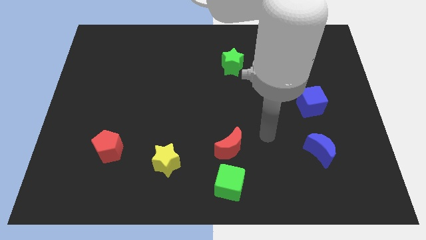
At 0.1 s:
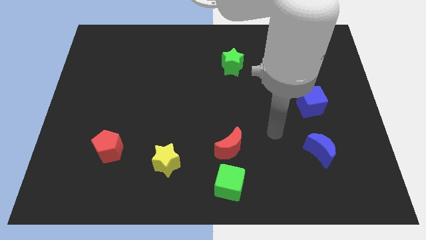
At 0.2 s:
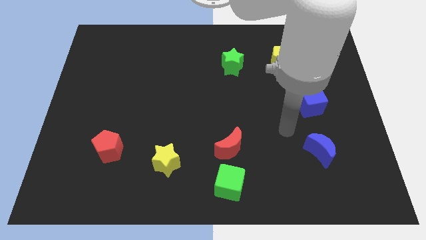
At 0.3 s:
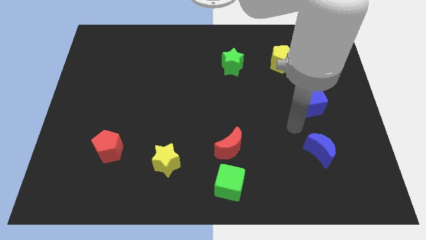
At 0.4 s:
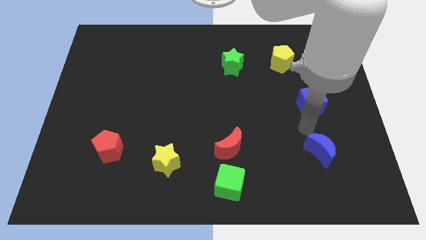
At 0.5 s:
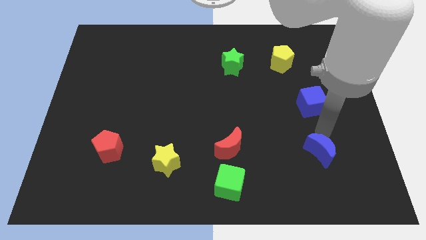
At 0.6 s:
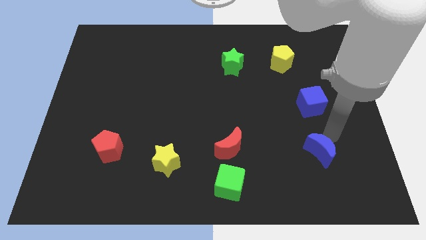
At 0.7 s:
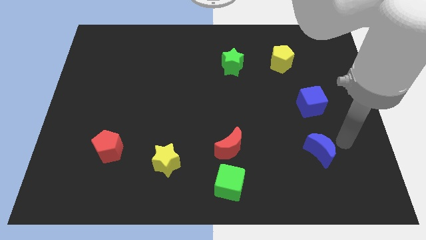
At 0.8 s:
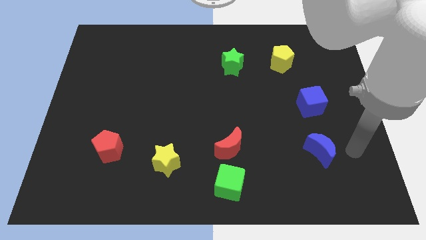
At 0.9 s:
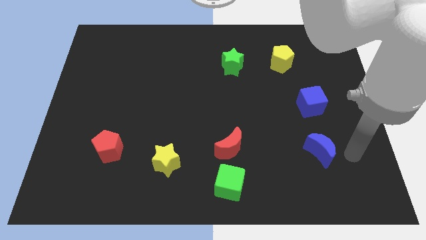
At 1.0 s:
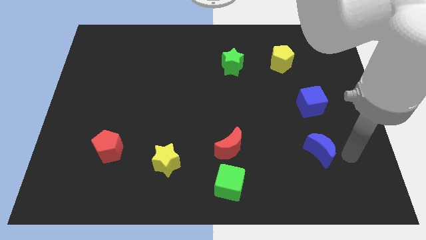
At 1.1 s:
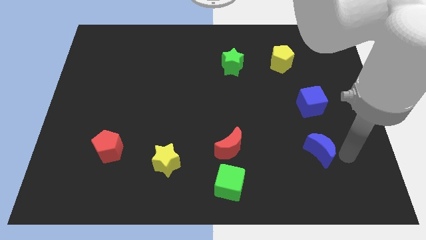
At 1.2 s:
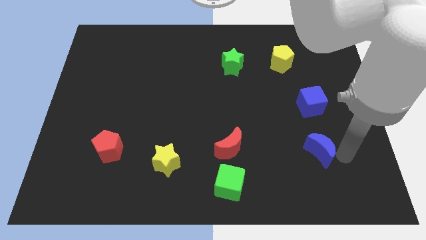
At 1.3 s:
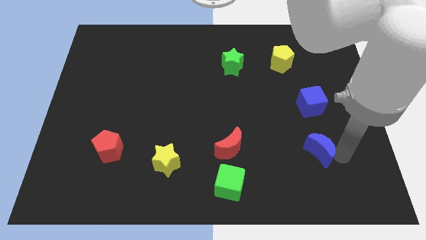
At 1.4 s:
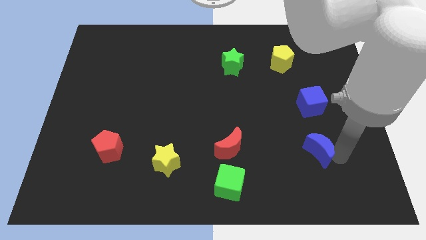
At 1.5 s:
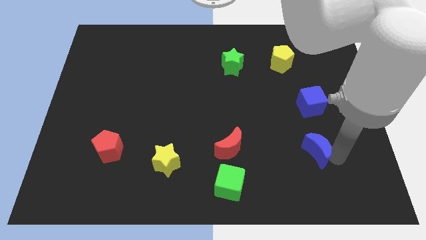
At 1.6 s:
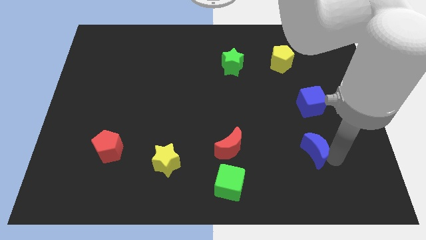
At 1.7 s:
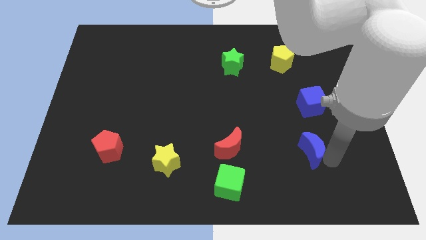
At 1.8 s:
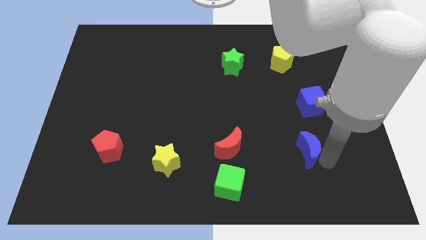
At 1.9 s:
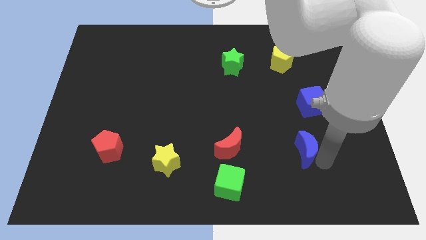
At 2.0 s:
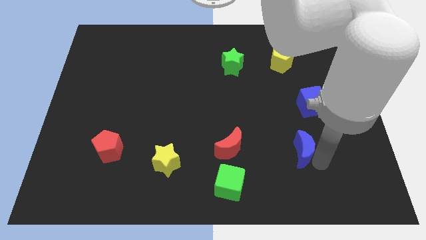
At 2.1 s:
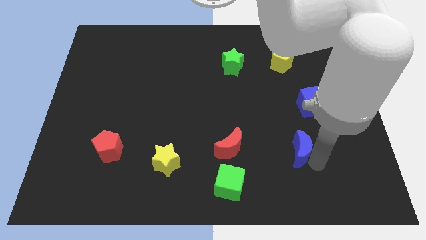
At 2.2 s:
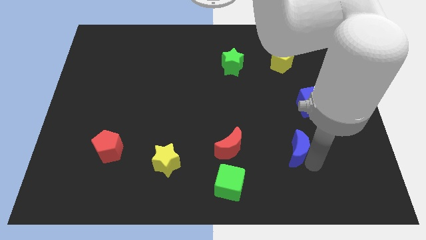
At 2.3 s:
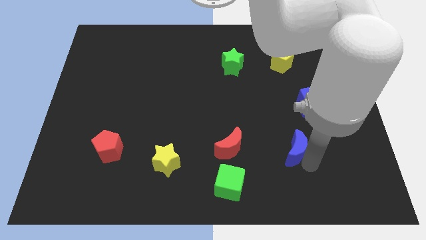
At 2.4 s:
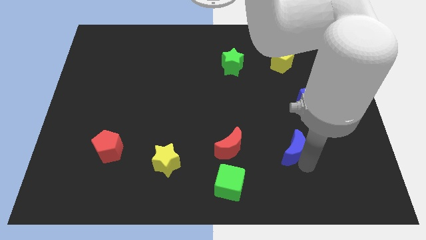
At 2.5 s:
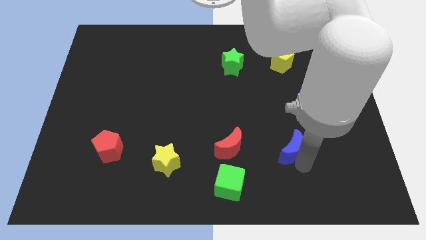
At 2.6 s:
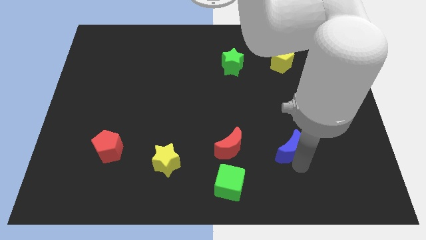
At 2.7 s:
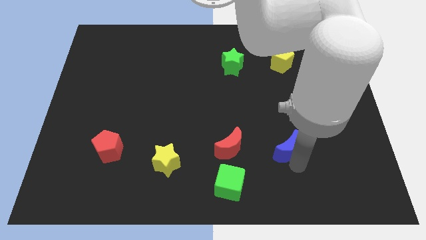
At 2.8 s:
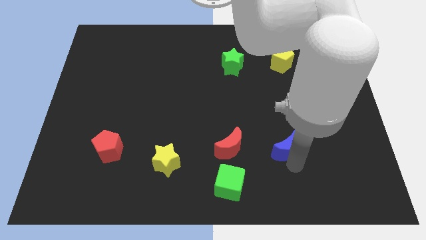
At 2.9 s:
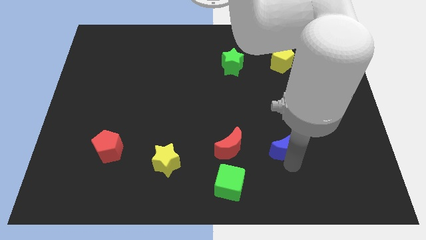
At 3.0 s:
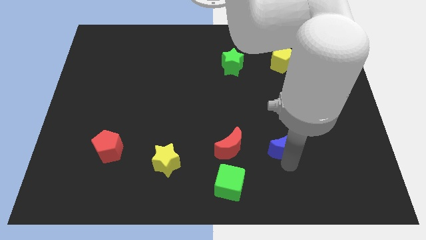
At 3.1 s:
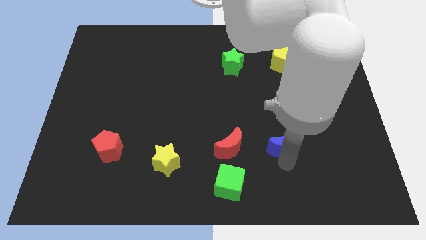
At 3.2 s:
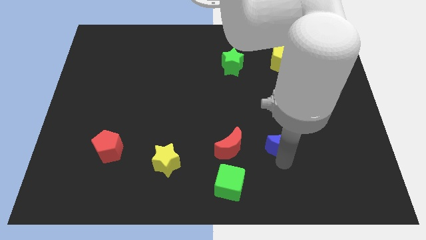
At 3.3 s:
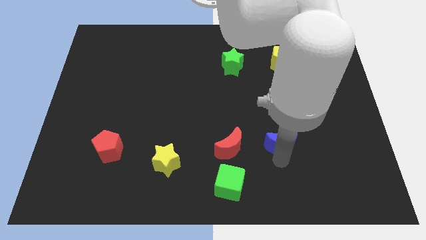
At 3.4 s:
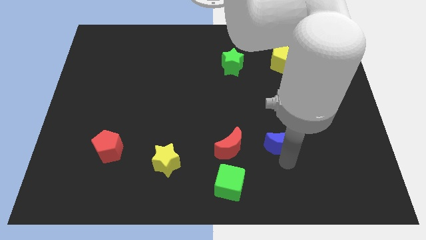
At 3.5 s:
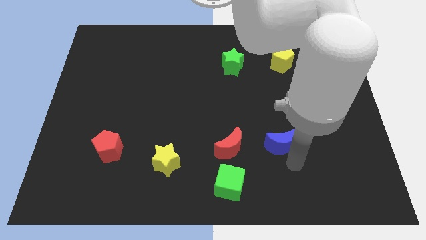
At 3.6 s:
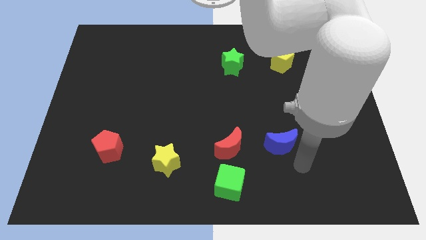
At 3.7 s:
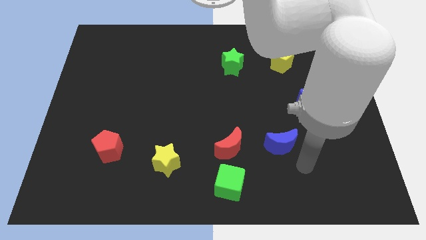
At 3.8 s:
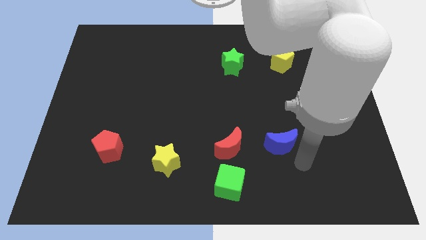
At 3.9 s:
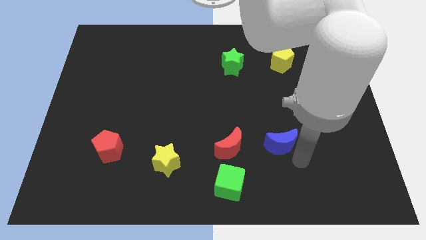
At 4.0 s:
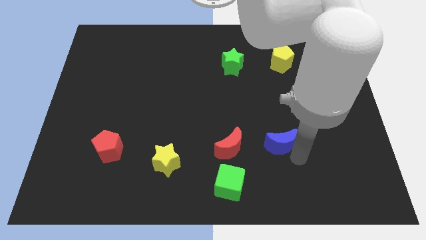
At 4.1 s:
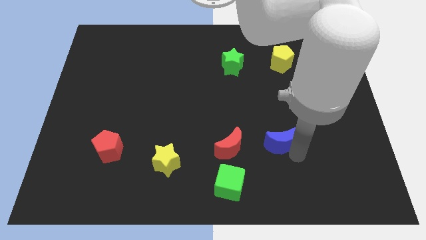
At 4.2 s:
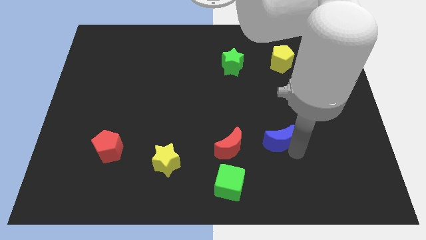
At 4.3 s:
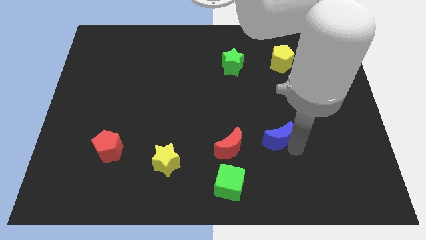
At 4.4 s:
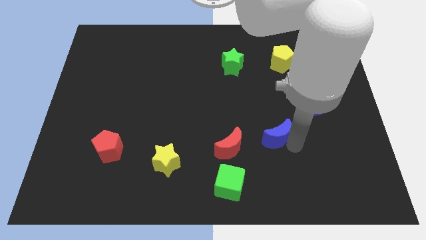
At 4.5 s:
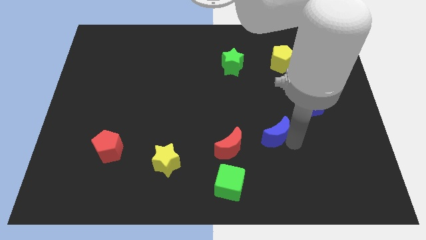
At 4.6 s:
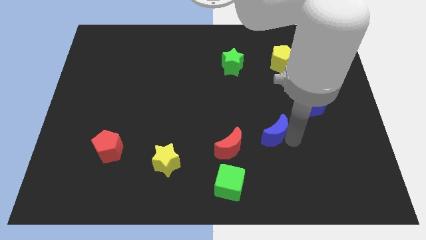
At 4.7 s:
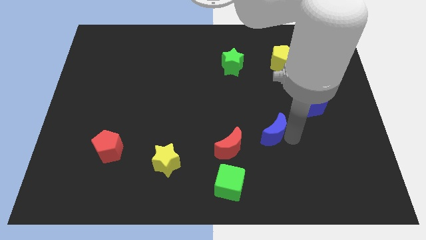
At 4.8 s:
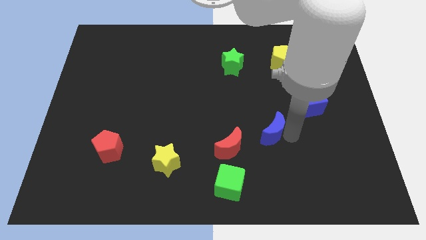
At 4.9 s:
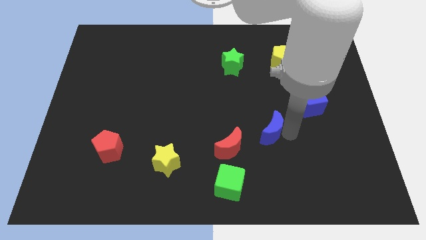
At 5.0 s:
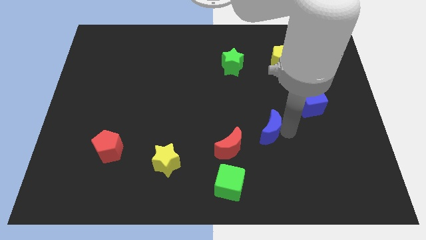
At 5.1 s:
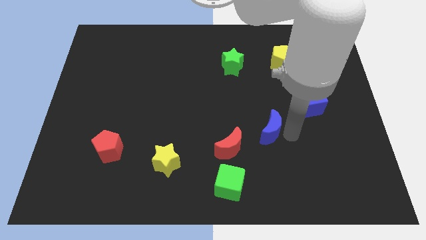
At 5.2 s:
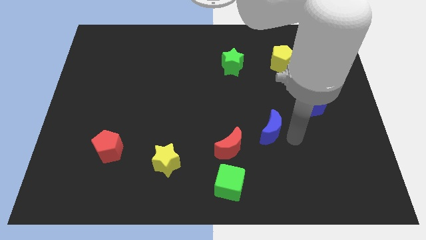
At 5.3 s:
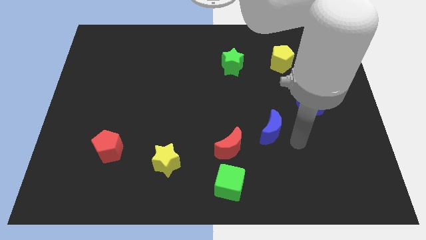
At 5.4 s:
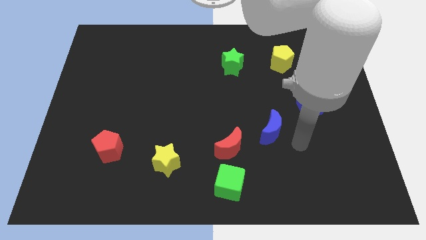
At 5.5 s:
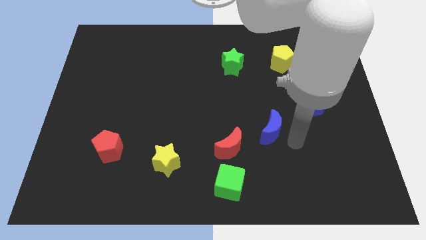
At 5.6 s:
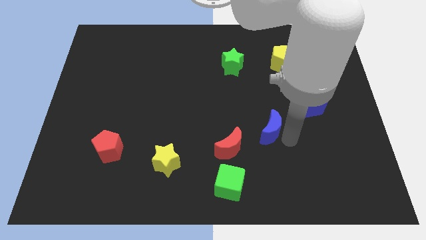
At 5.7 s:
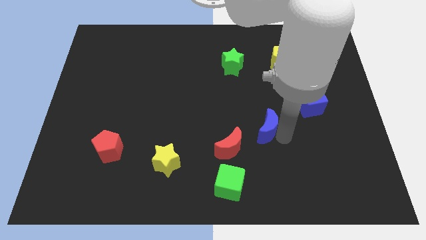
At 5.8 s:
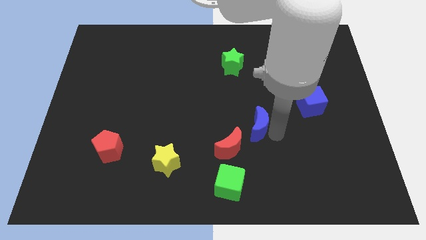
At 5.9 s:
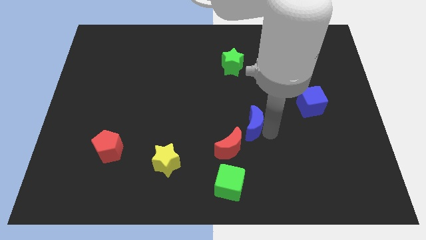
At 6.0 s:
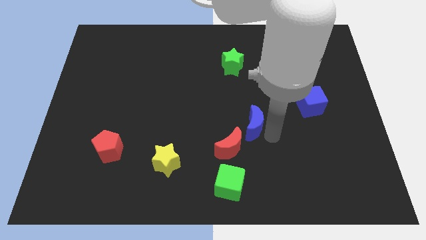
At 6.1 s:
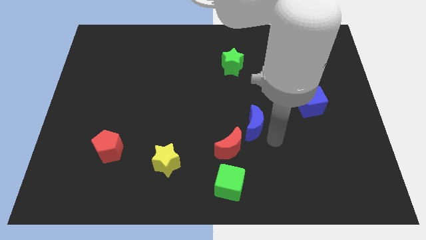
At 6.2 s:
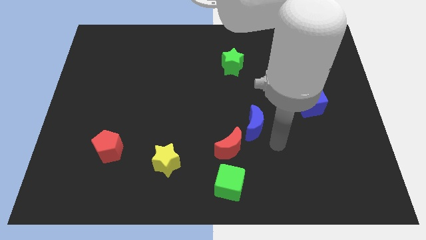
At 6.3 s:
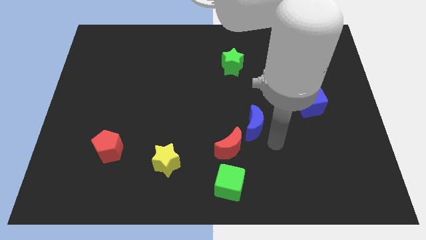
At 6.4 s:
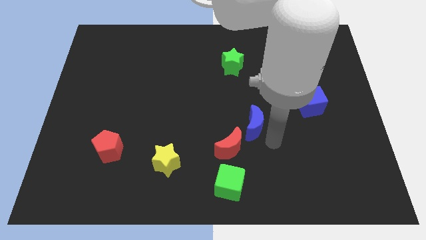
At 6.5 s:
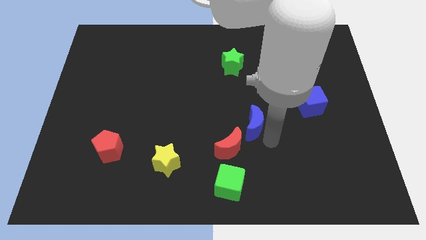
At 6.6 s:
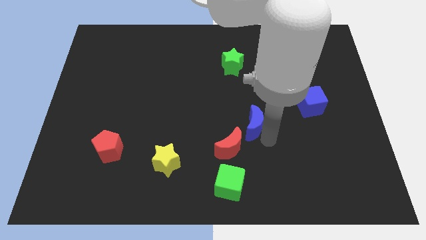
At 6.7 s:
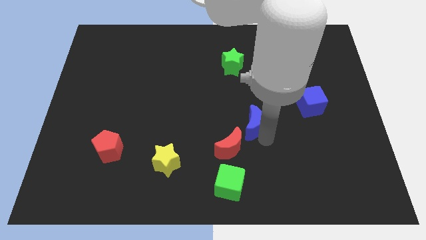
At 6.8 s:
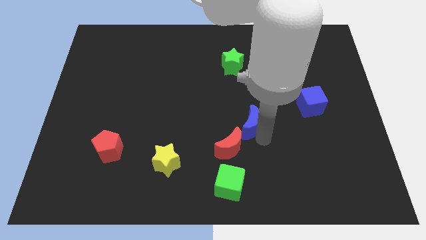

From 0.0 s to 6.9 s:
move the blue moon above the red moon

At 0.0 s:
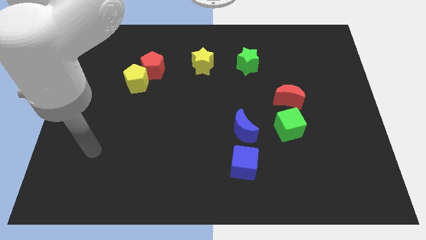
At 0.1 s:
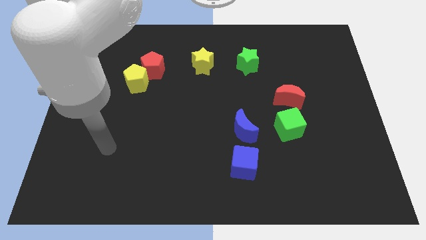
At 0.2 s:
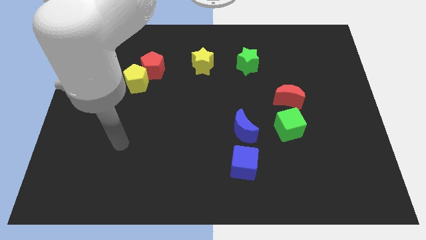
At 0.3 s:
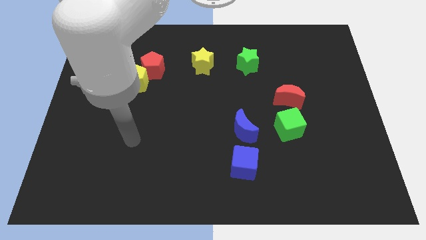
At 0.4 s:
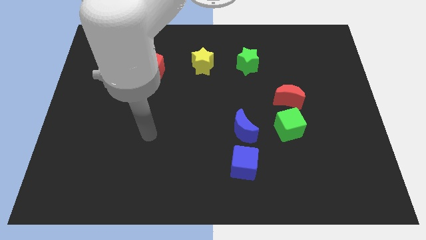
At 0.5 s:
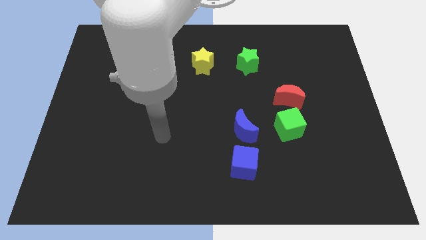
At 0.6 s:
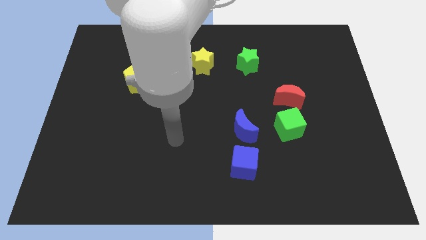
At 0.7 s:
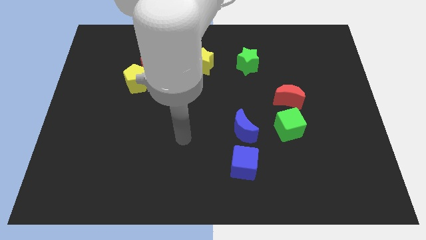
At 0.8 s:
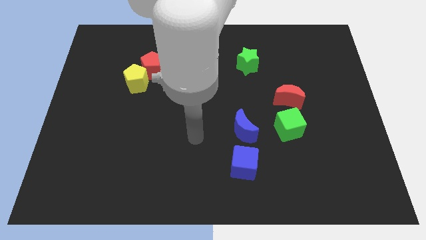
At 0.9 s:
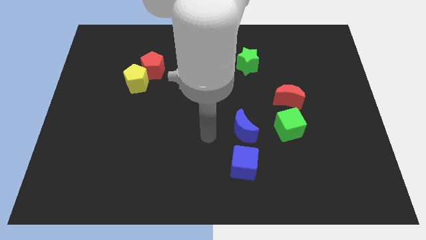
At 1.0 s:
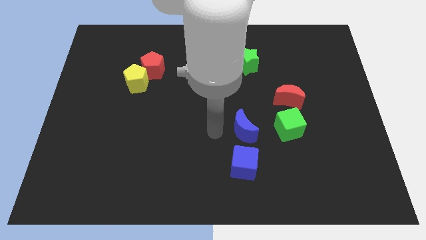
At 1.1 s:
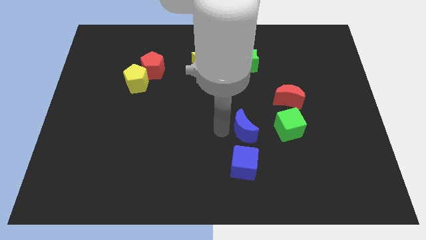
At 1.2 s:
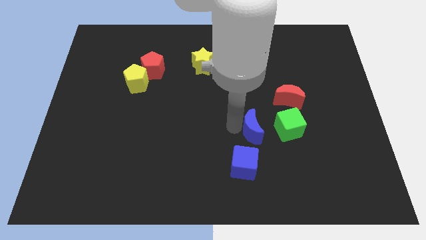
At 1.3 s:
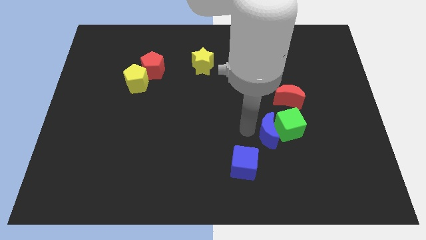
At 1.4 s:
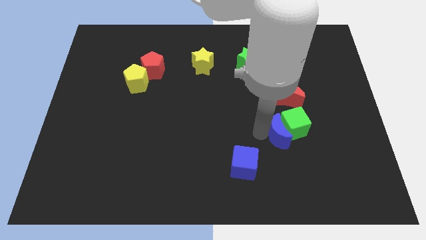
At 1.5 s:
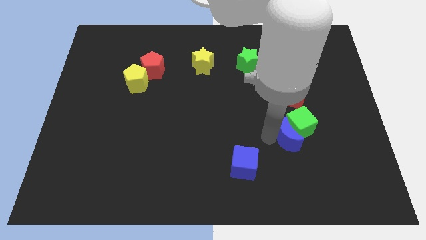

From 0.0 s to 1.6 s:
move the green cube to the bottom right of the red moon

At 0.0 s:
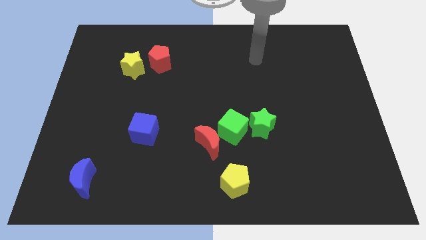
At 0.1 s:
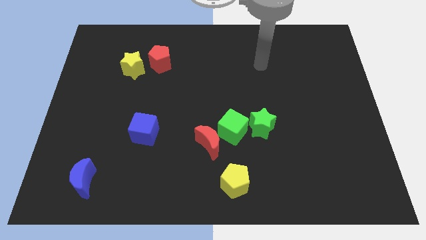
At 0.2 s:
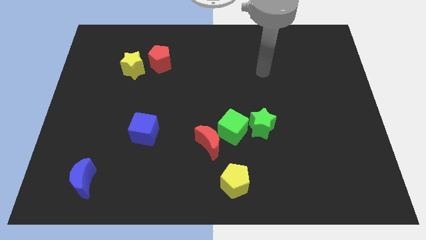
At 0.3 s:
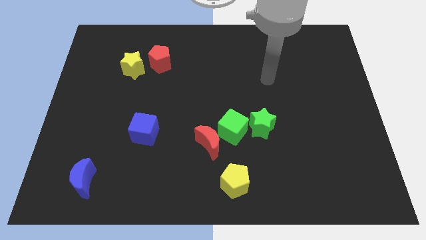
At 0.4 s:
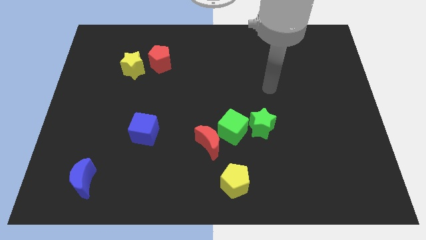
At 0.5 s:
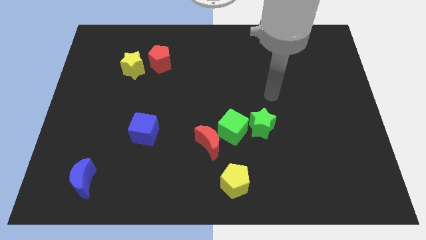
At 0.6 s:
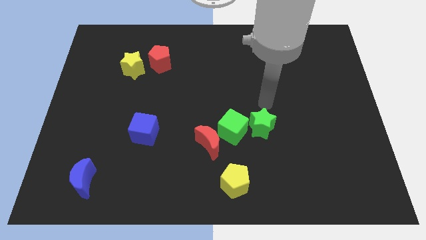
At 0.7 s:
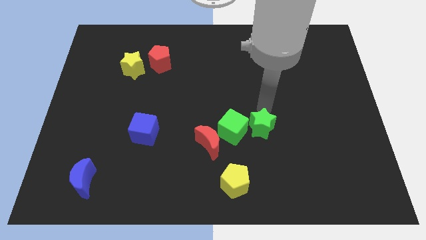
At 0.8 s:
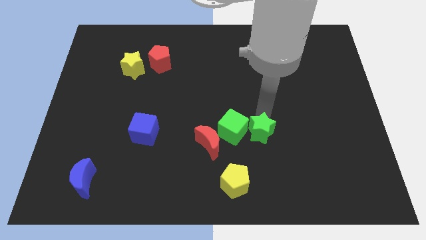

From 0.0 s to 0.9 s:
move the green star diagonally down and to the right of the green cube
